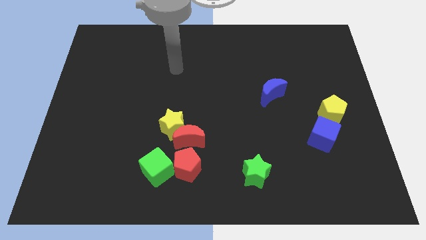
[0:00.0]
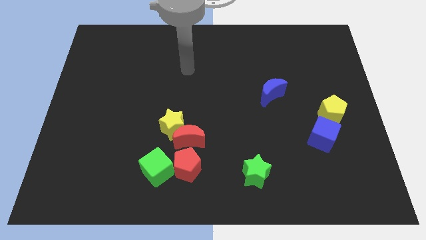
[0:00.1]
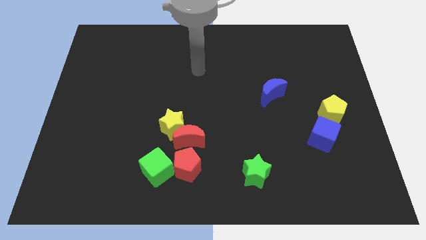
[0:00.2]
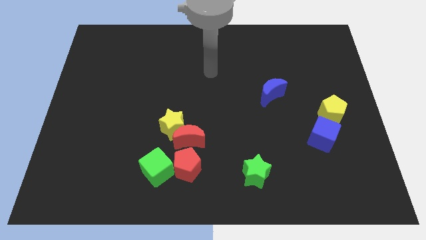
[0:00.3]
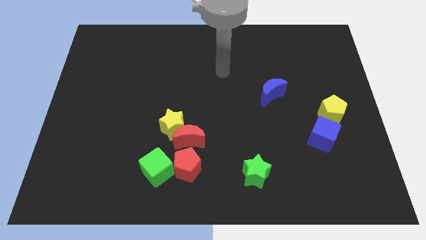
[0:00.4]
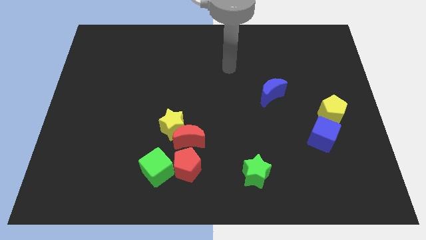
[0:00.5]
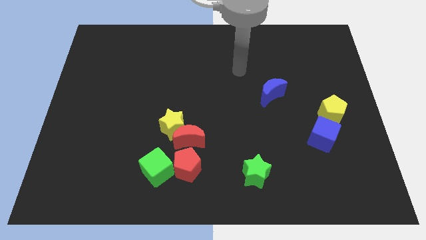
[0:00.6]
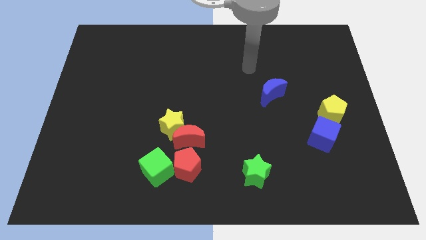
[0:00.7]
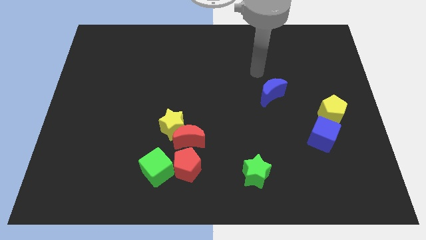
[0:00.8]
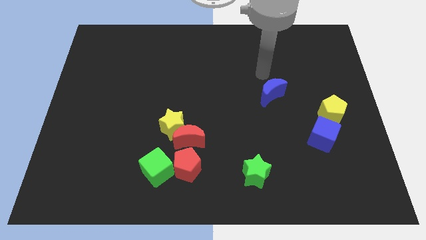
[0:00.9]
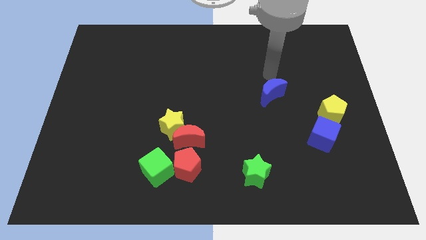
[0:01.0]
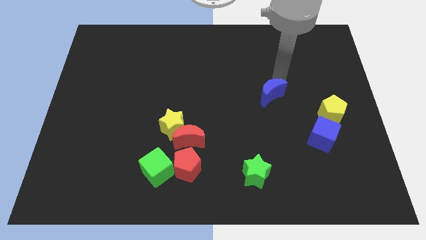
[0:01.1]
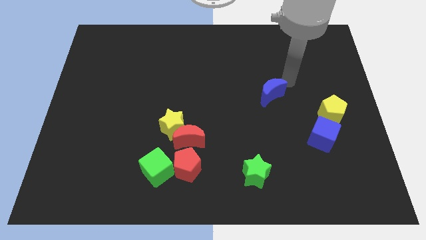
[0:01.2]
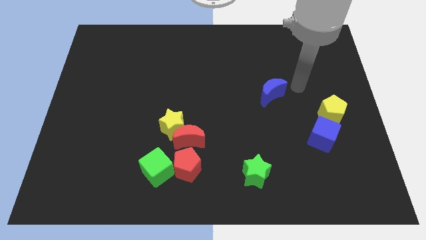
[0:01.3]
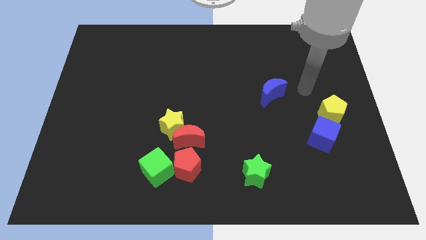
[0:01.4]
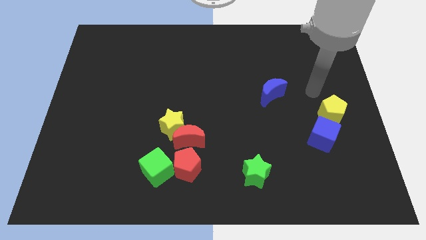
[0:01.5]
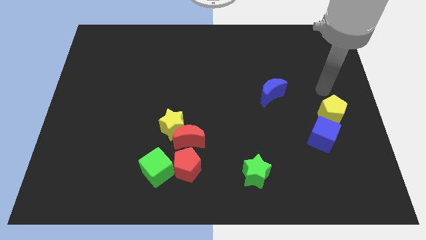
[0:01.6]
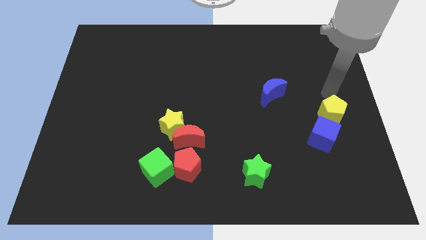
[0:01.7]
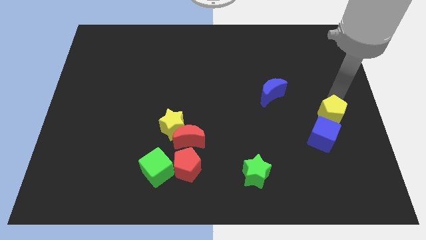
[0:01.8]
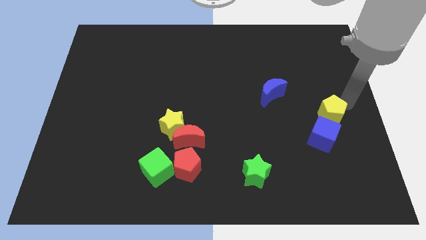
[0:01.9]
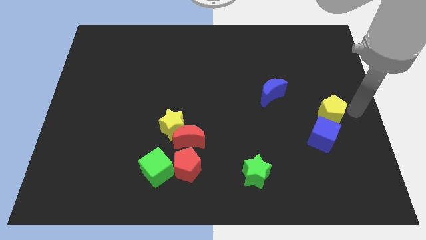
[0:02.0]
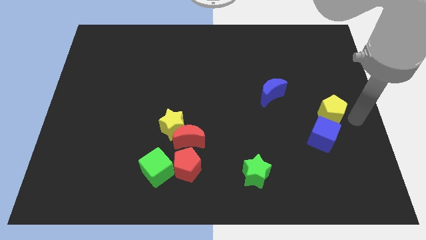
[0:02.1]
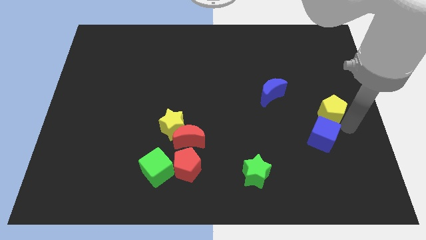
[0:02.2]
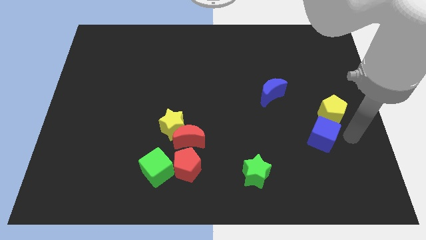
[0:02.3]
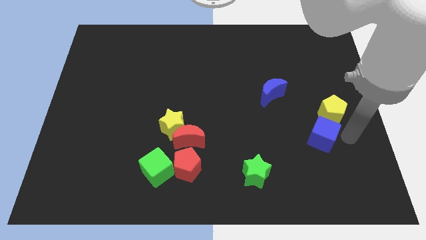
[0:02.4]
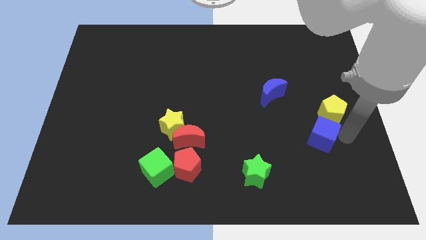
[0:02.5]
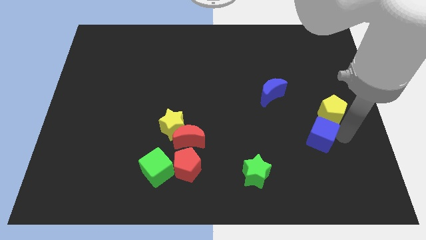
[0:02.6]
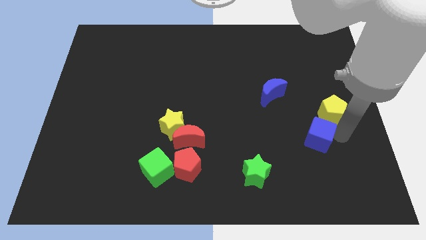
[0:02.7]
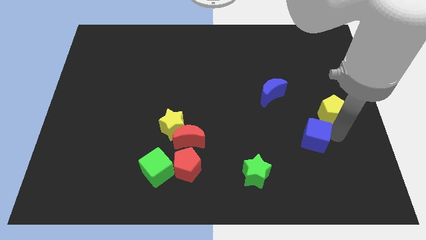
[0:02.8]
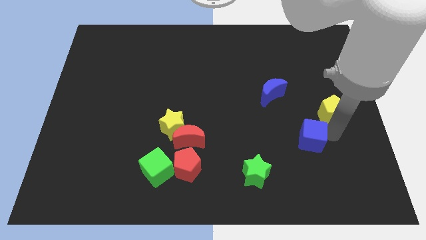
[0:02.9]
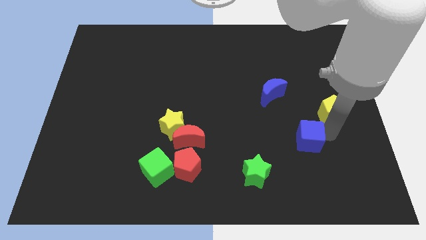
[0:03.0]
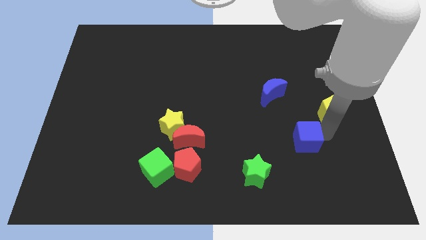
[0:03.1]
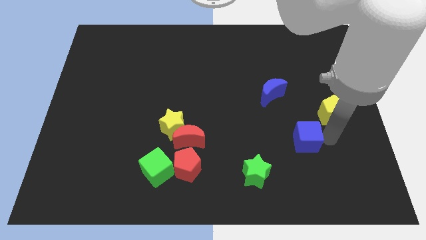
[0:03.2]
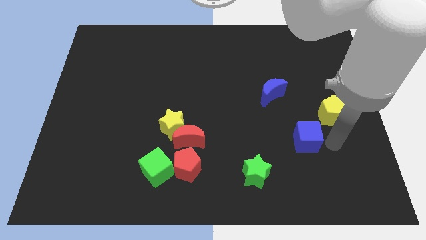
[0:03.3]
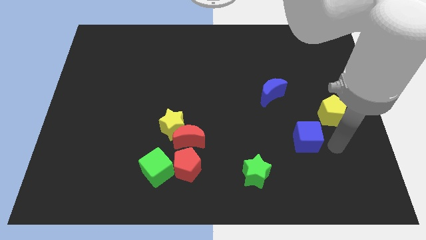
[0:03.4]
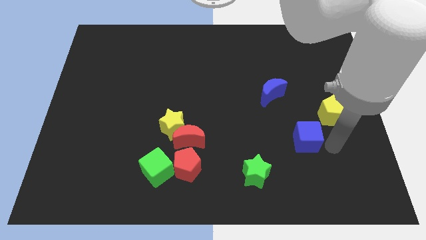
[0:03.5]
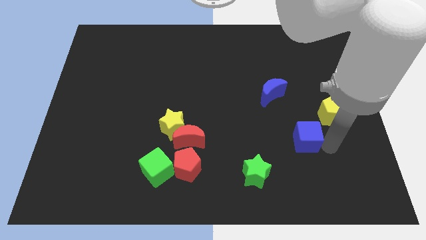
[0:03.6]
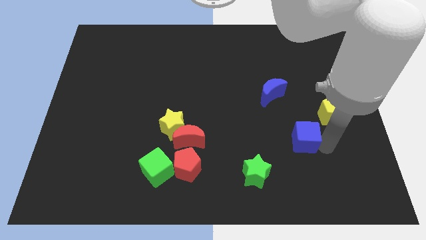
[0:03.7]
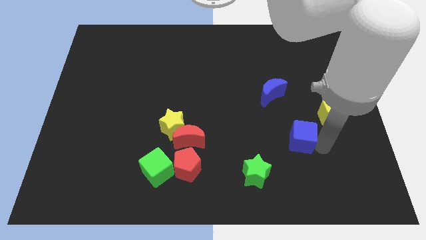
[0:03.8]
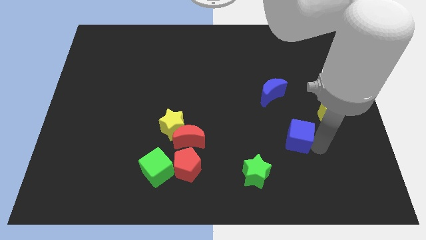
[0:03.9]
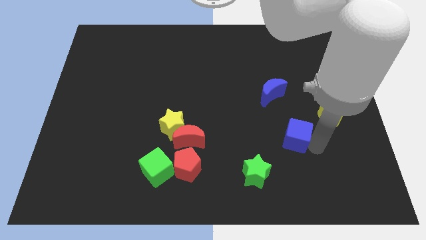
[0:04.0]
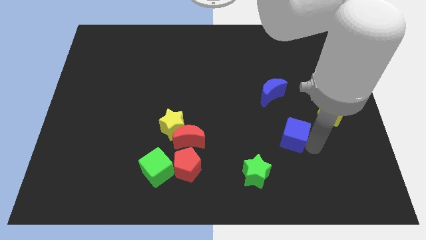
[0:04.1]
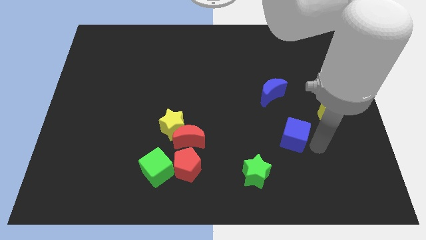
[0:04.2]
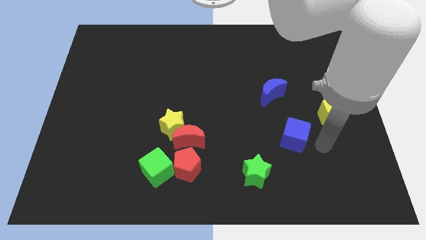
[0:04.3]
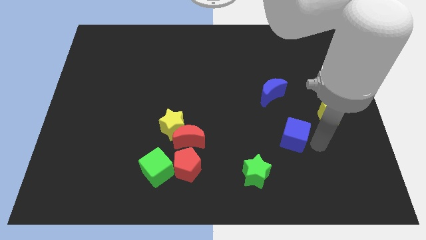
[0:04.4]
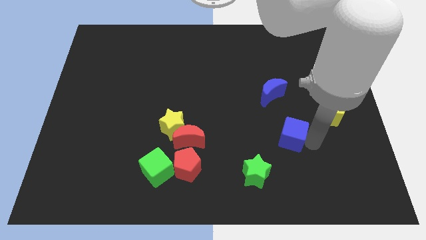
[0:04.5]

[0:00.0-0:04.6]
slide the blue cube to the left somewhat

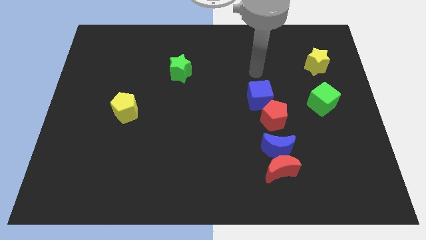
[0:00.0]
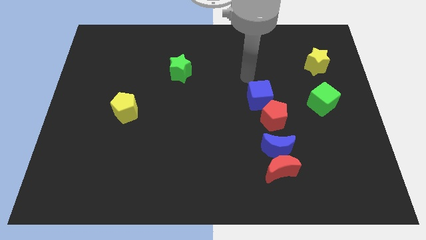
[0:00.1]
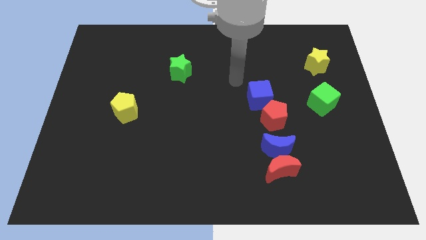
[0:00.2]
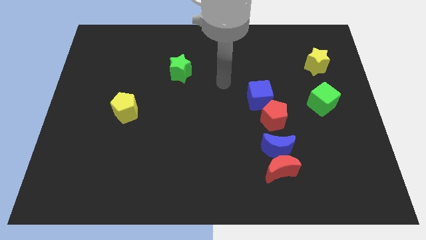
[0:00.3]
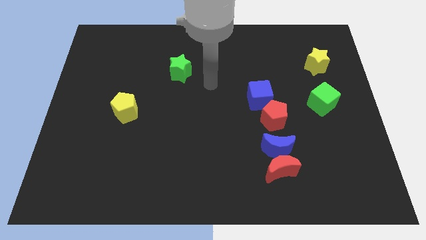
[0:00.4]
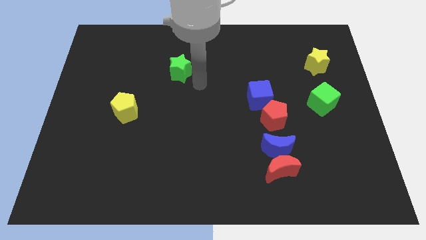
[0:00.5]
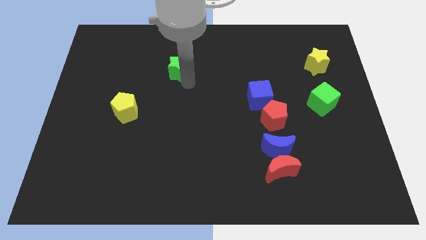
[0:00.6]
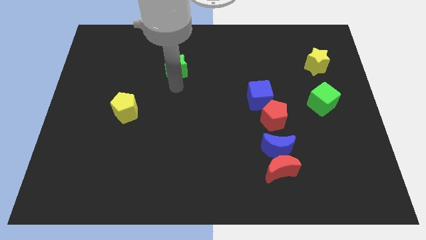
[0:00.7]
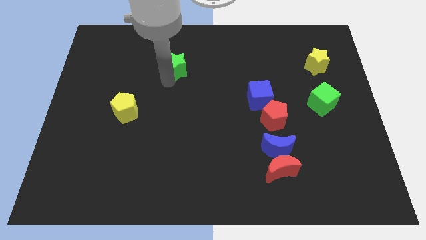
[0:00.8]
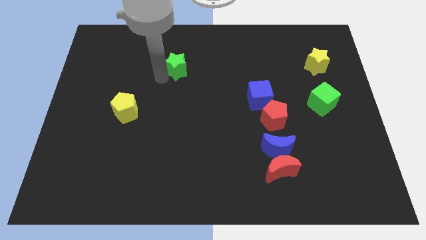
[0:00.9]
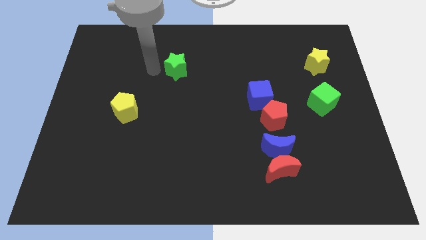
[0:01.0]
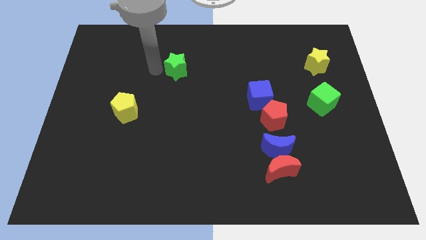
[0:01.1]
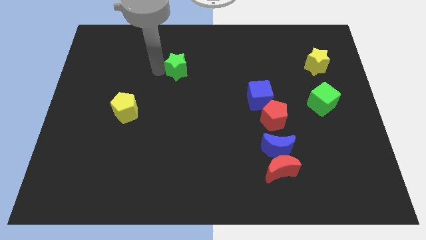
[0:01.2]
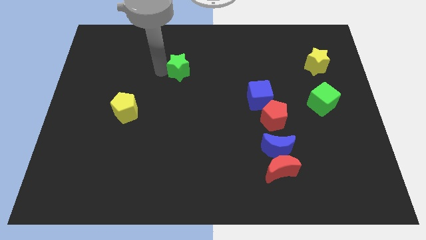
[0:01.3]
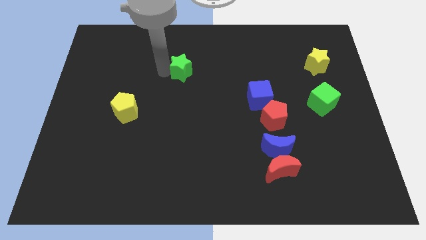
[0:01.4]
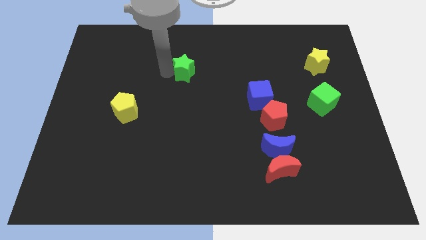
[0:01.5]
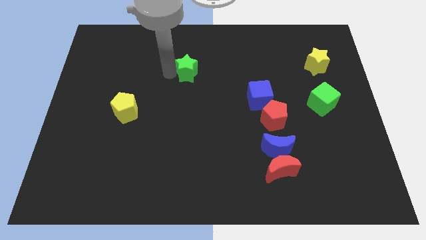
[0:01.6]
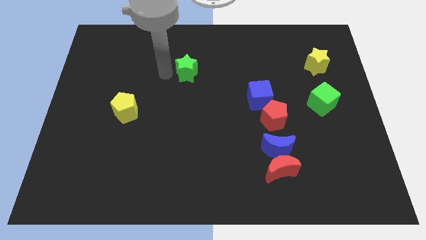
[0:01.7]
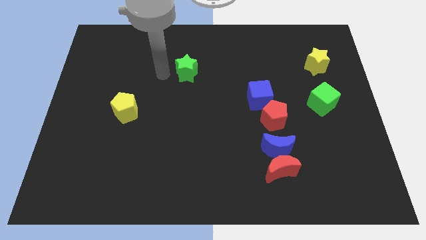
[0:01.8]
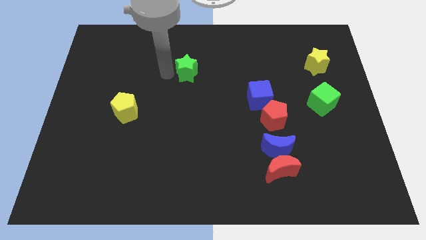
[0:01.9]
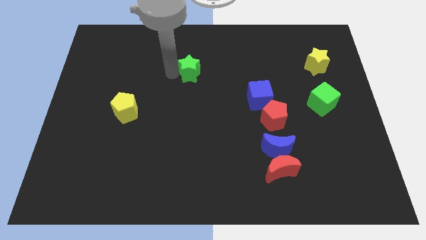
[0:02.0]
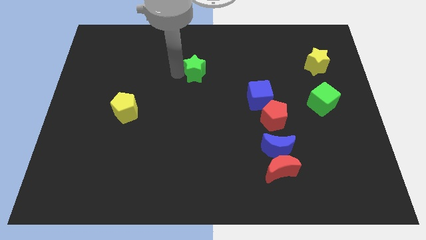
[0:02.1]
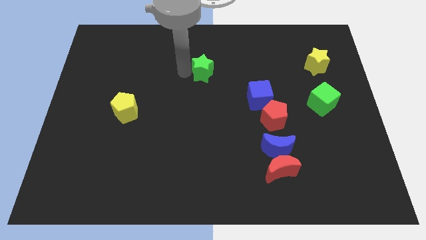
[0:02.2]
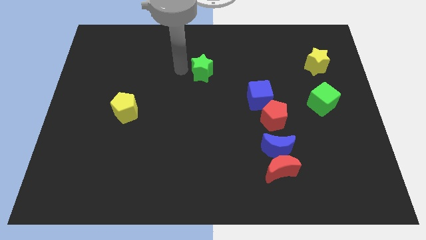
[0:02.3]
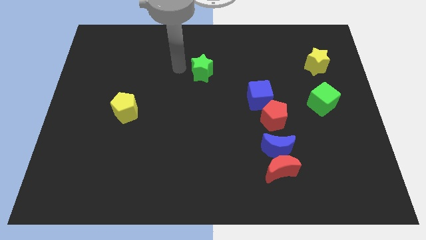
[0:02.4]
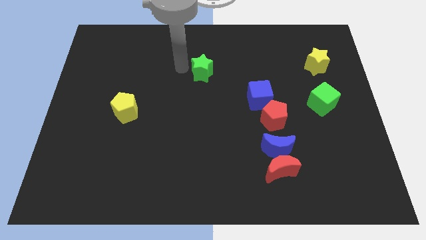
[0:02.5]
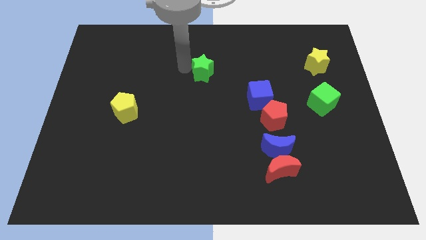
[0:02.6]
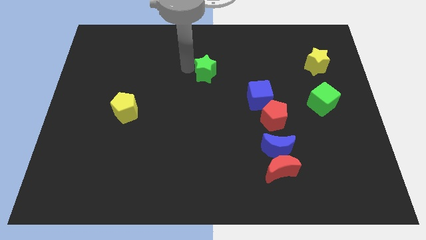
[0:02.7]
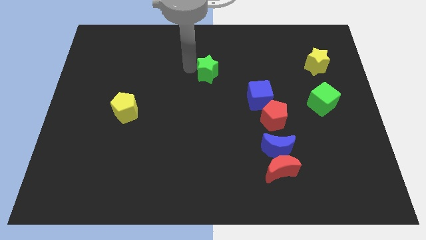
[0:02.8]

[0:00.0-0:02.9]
slightly move the green star to the right

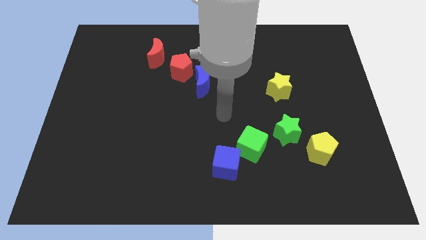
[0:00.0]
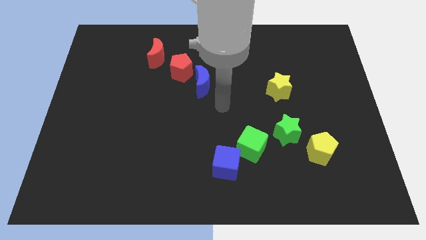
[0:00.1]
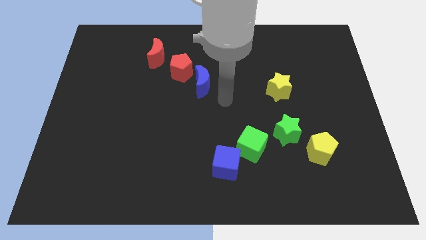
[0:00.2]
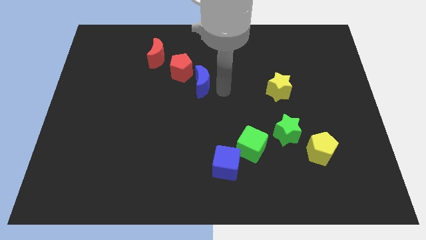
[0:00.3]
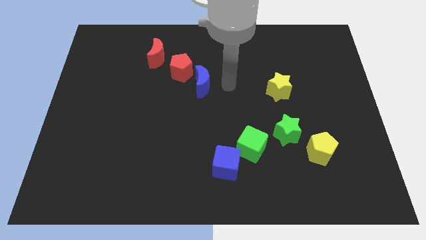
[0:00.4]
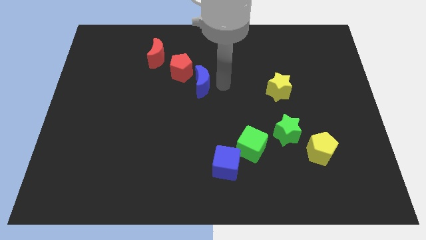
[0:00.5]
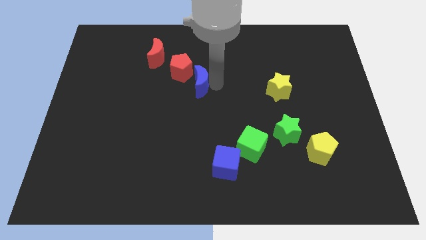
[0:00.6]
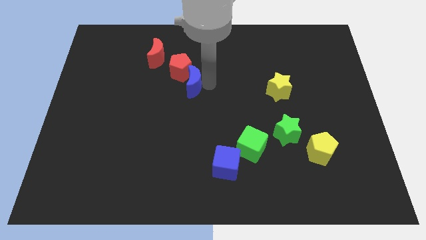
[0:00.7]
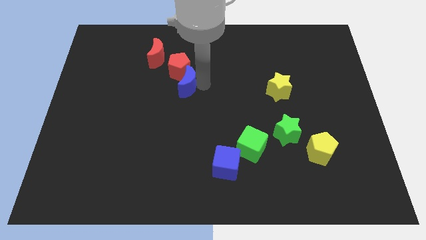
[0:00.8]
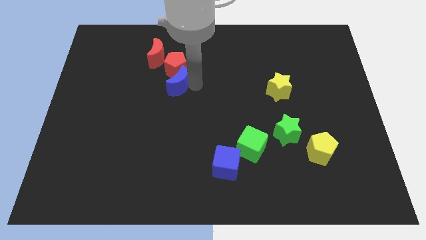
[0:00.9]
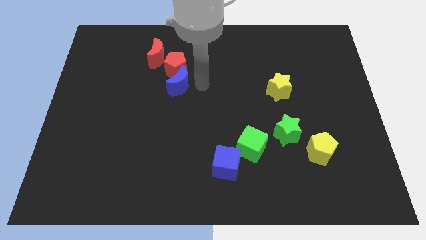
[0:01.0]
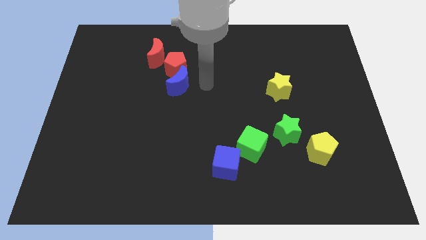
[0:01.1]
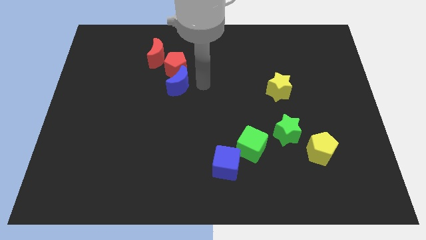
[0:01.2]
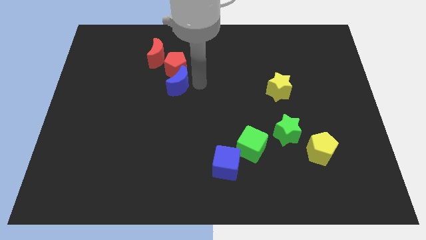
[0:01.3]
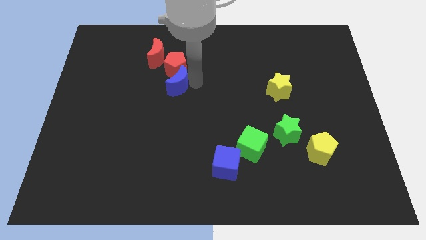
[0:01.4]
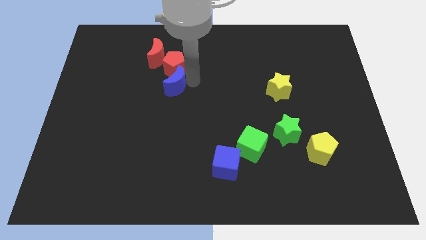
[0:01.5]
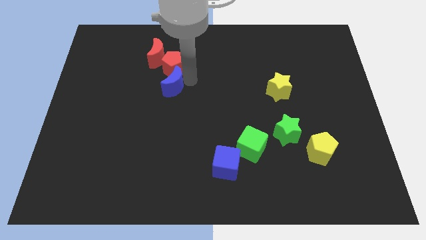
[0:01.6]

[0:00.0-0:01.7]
slide the blue moon left a little bit
